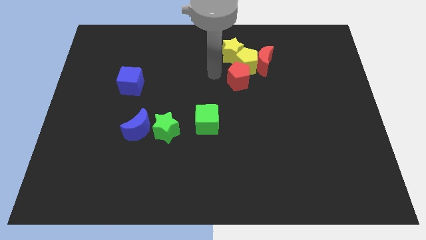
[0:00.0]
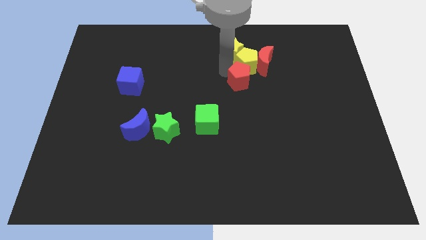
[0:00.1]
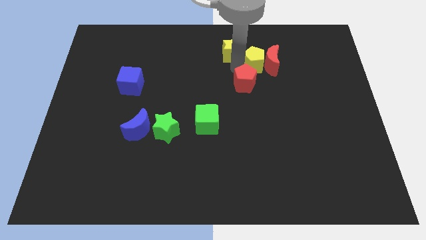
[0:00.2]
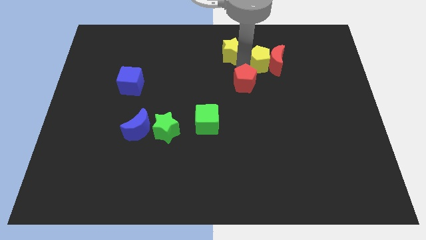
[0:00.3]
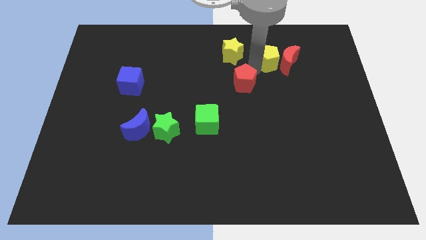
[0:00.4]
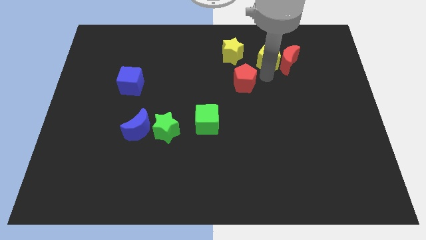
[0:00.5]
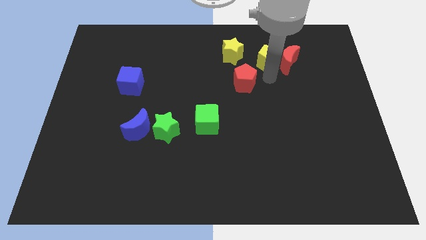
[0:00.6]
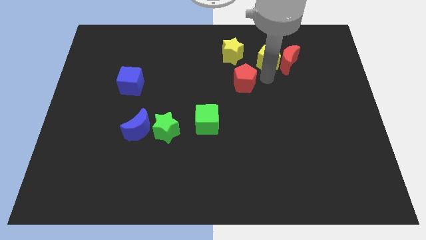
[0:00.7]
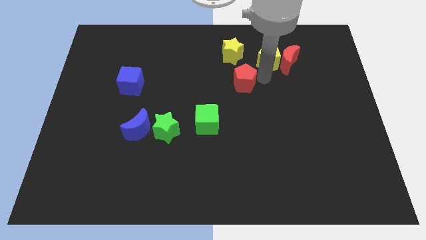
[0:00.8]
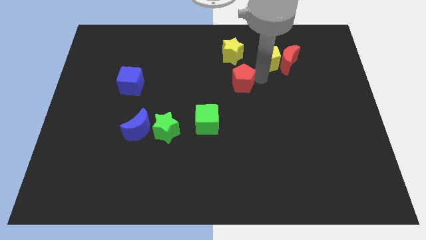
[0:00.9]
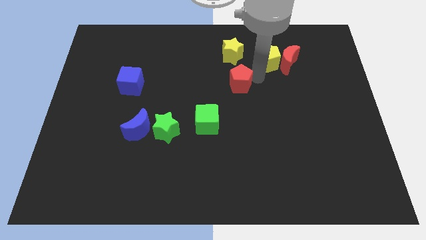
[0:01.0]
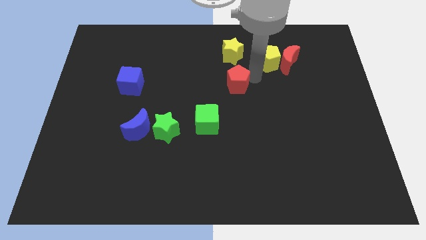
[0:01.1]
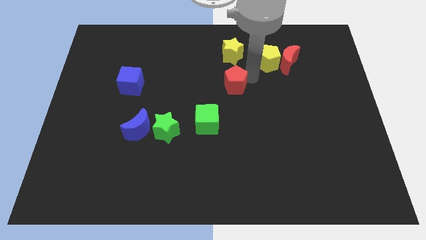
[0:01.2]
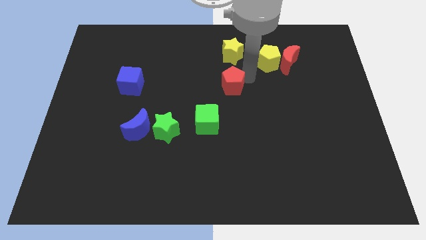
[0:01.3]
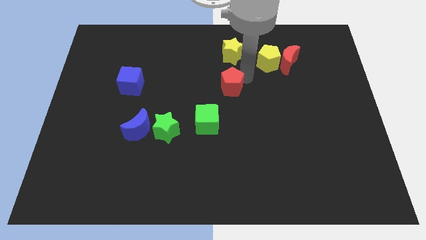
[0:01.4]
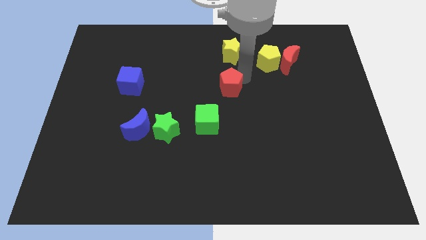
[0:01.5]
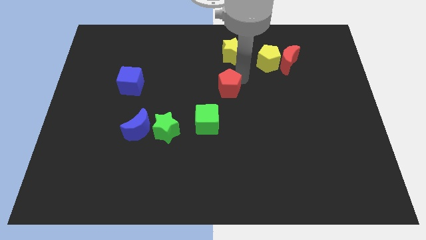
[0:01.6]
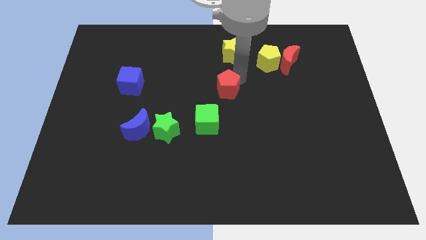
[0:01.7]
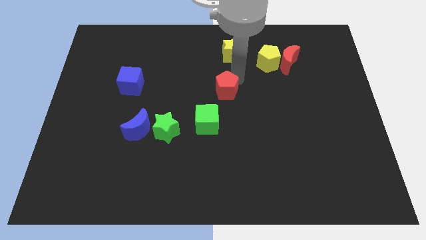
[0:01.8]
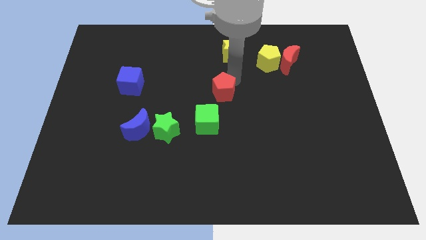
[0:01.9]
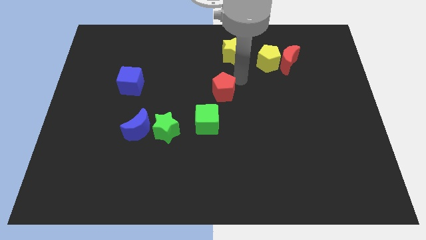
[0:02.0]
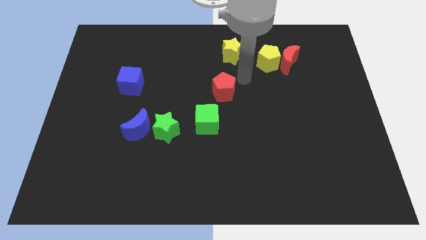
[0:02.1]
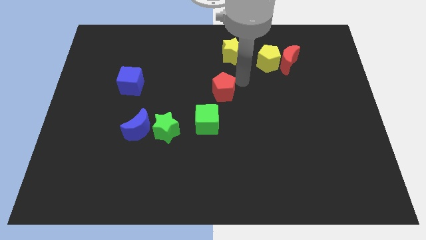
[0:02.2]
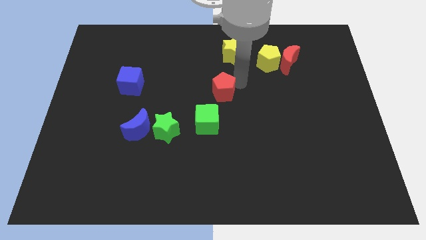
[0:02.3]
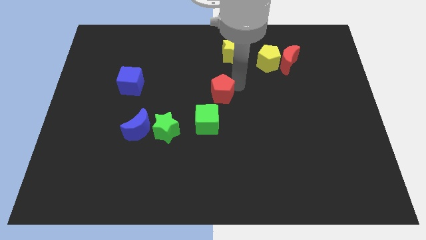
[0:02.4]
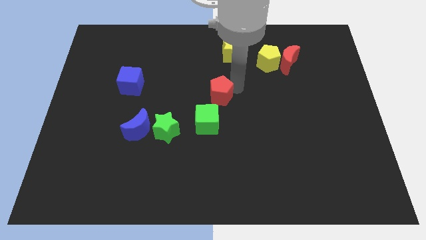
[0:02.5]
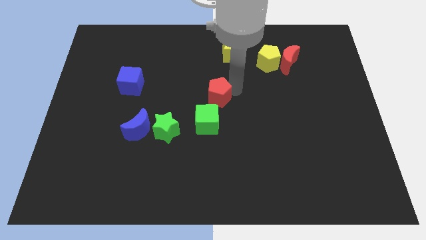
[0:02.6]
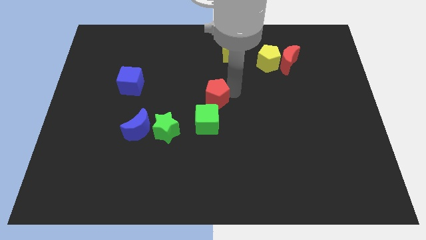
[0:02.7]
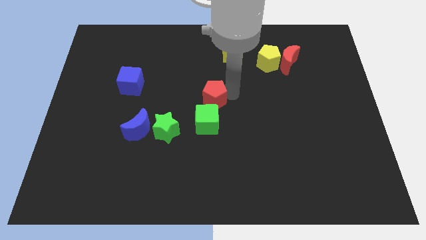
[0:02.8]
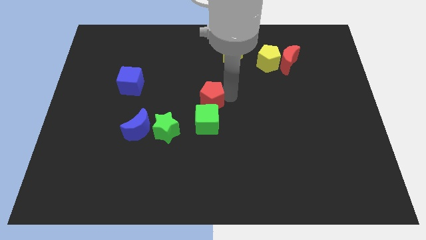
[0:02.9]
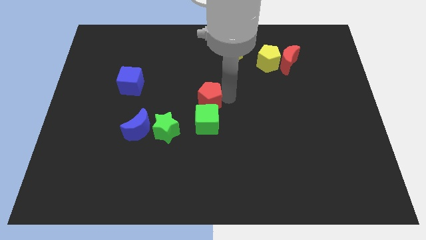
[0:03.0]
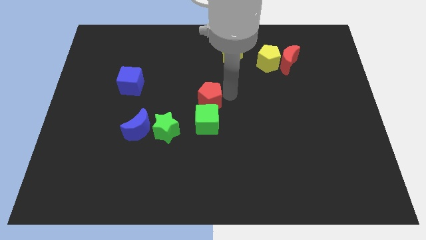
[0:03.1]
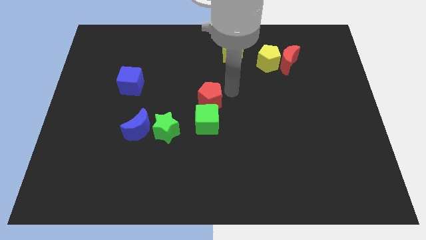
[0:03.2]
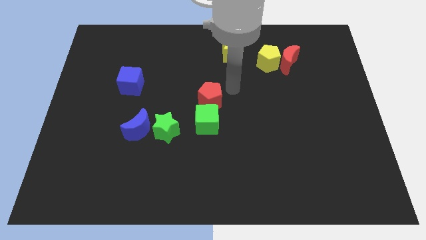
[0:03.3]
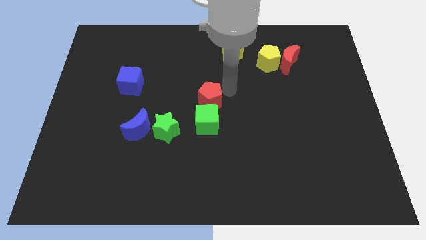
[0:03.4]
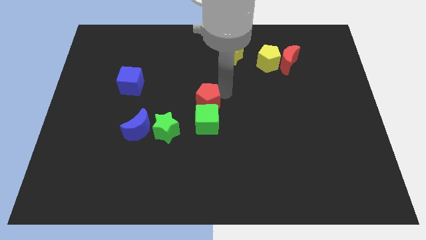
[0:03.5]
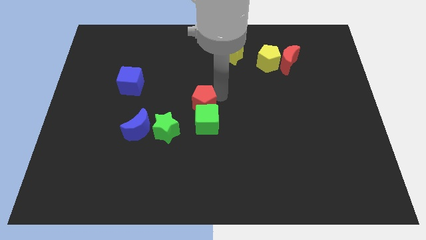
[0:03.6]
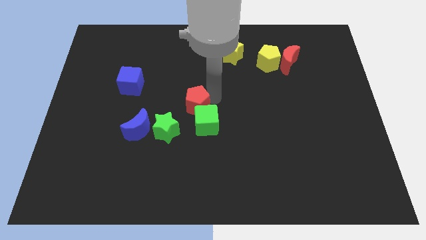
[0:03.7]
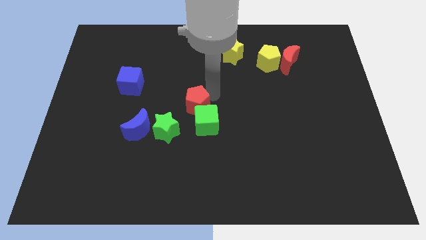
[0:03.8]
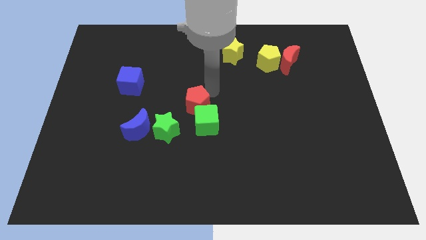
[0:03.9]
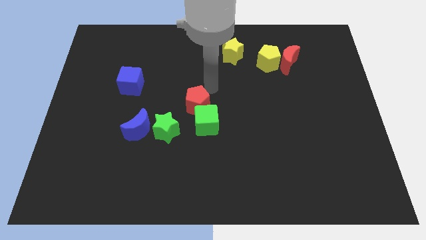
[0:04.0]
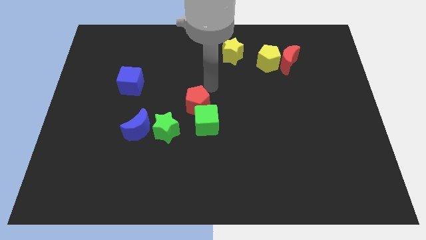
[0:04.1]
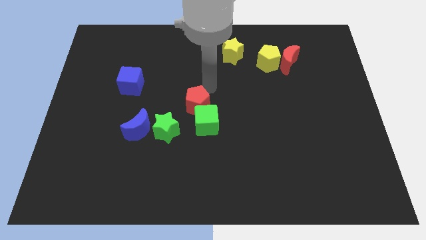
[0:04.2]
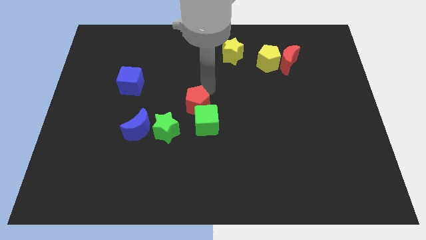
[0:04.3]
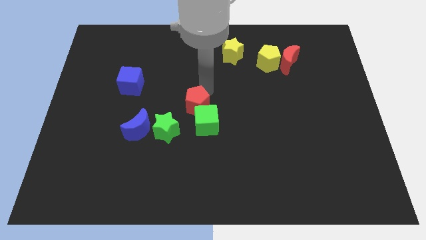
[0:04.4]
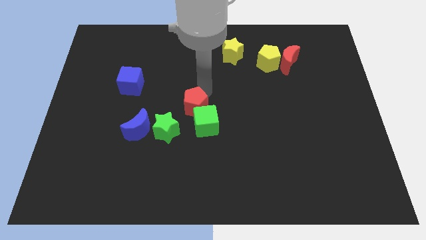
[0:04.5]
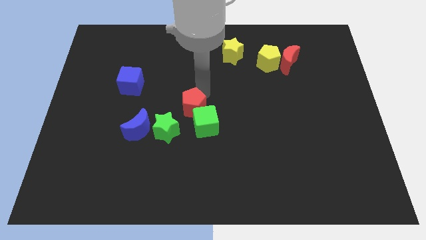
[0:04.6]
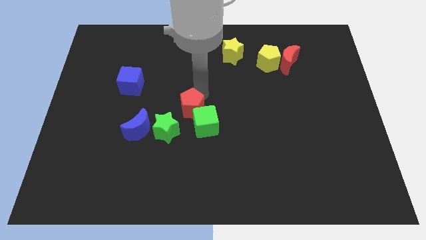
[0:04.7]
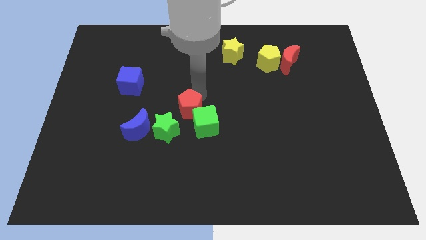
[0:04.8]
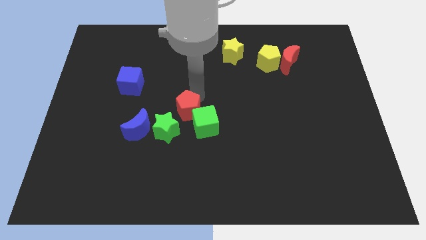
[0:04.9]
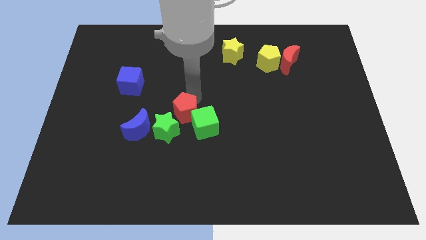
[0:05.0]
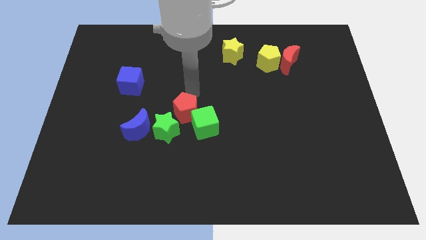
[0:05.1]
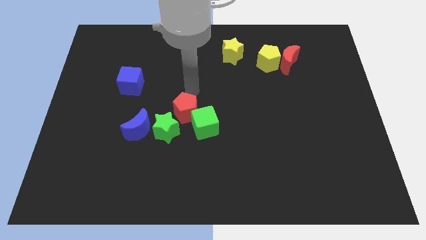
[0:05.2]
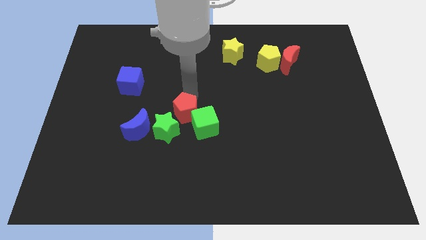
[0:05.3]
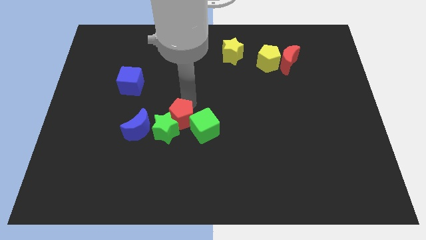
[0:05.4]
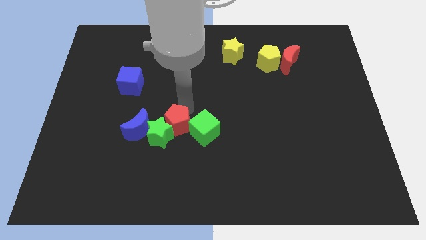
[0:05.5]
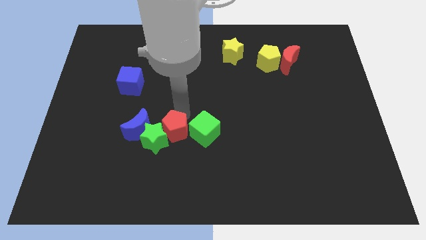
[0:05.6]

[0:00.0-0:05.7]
slide the red pentagon downwards and to the left

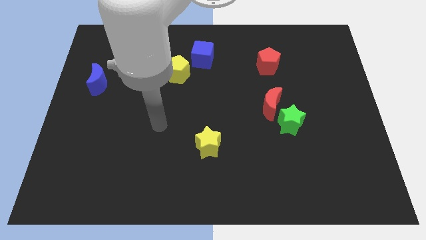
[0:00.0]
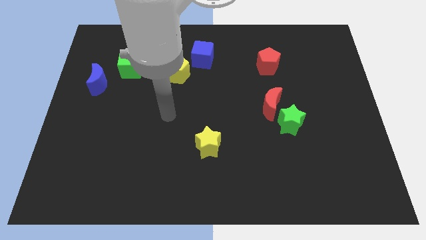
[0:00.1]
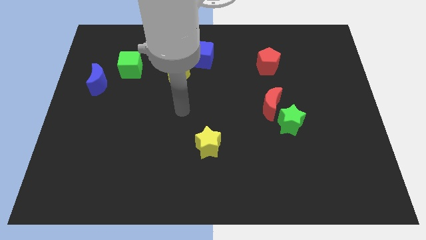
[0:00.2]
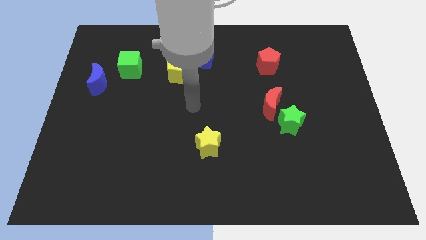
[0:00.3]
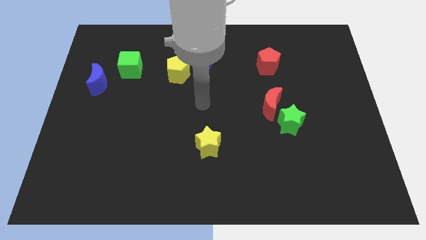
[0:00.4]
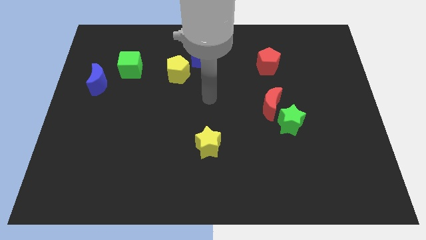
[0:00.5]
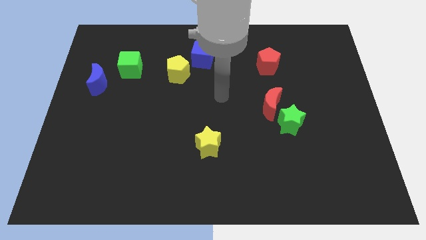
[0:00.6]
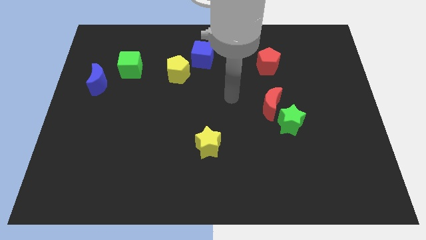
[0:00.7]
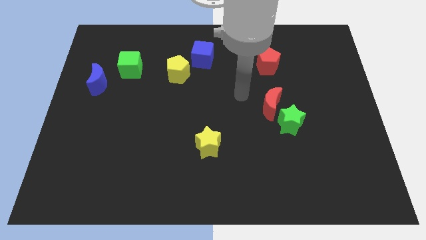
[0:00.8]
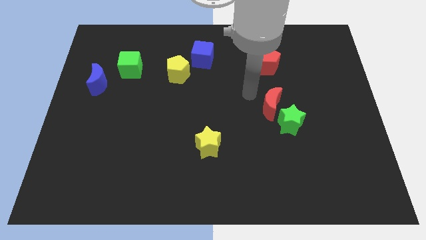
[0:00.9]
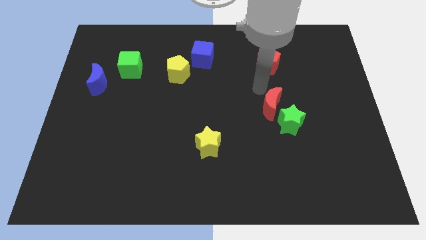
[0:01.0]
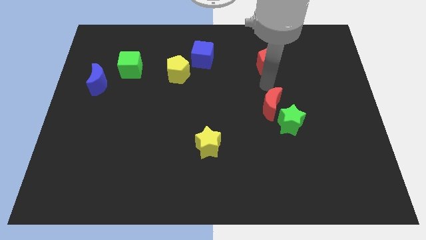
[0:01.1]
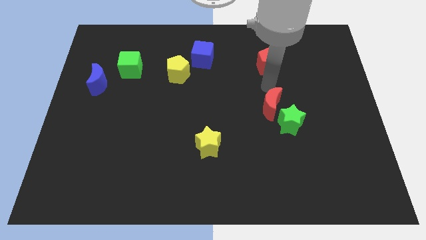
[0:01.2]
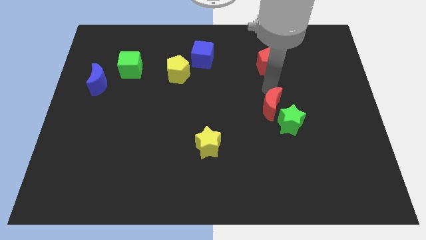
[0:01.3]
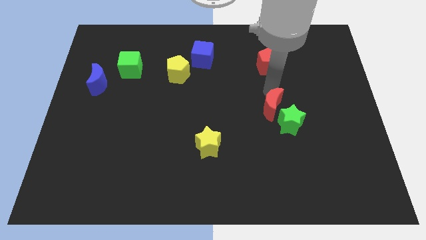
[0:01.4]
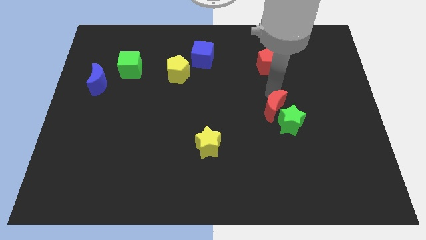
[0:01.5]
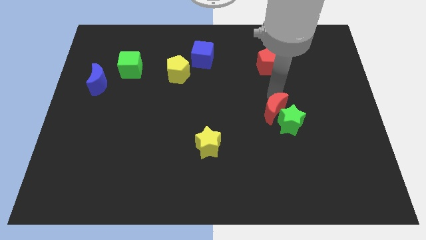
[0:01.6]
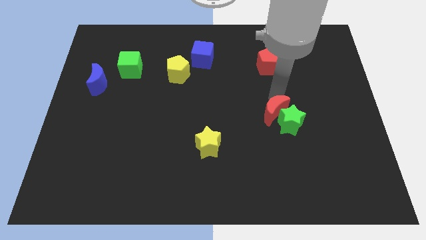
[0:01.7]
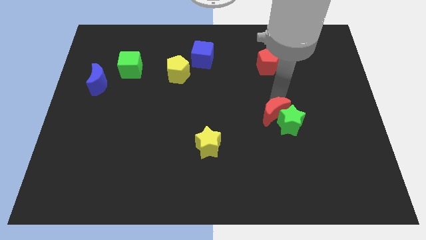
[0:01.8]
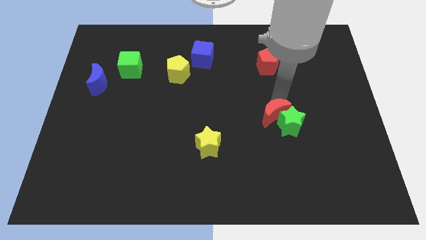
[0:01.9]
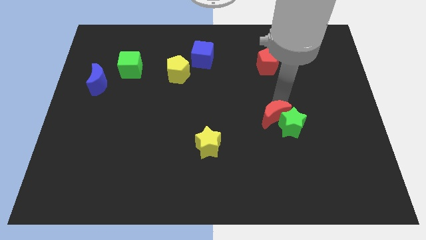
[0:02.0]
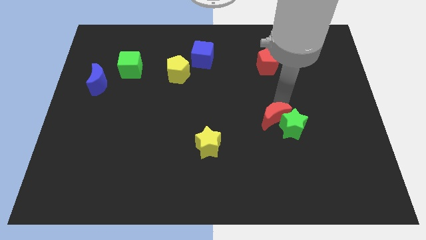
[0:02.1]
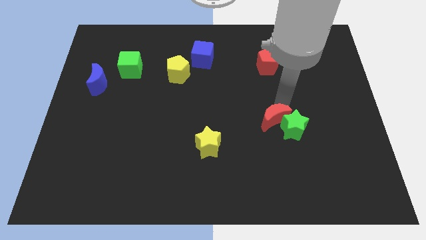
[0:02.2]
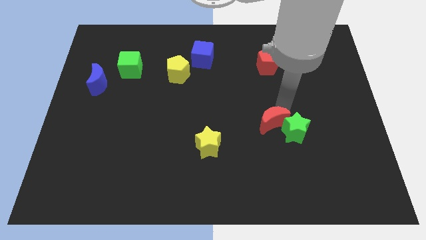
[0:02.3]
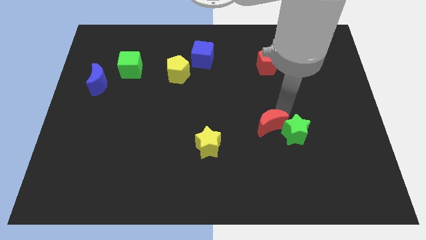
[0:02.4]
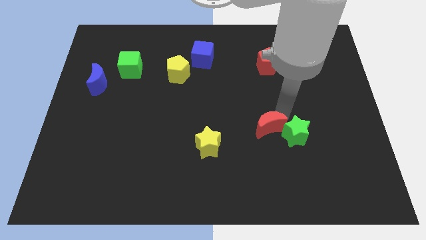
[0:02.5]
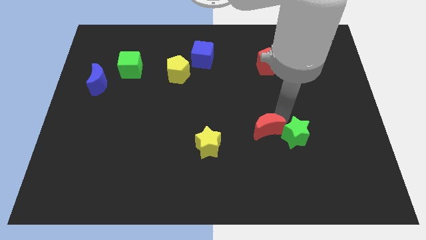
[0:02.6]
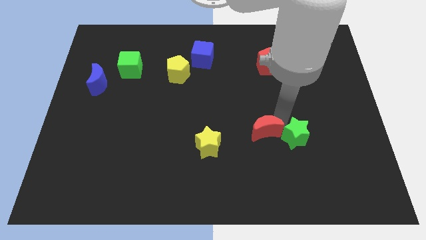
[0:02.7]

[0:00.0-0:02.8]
slightly push the red moon down

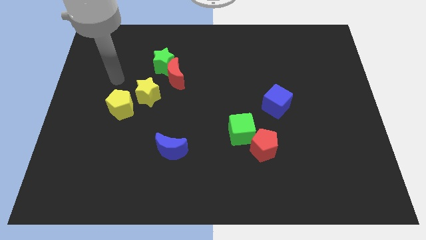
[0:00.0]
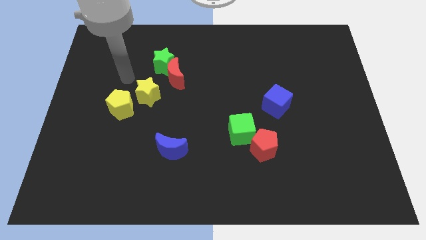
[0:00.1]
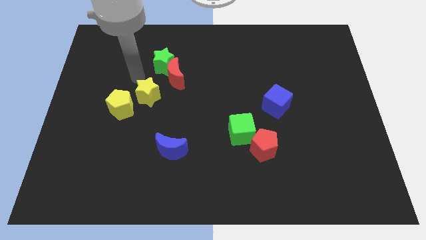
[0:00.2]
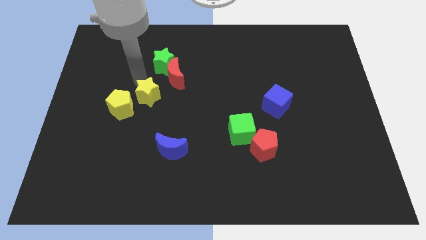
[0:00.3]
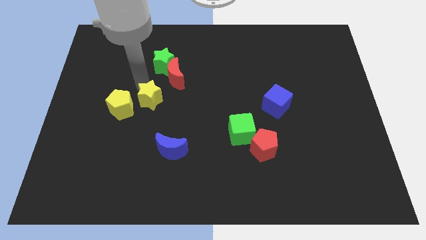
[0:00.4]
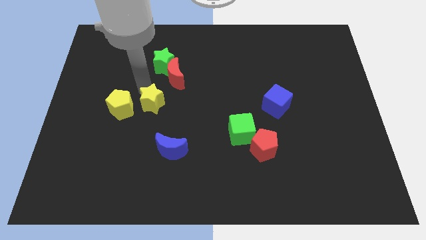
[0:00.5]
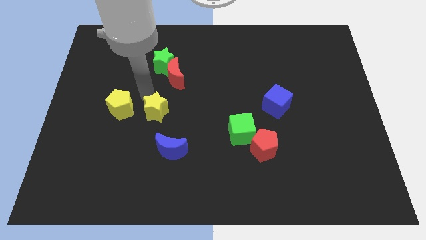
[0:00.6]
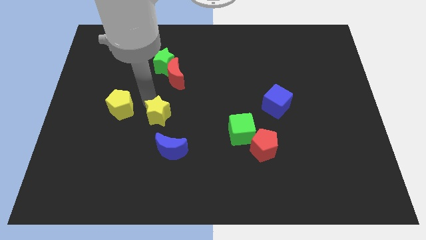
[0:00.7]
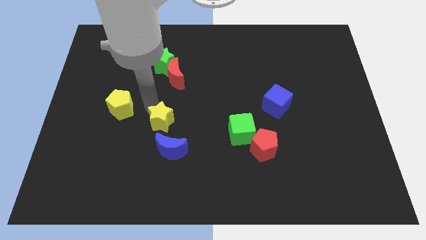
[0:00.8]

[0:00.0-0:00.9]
move the yellow star a little downwards and to the right diagonally
